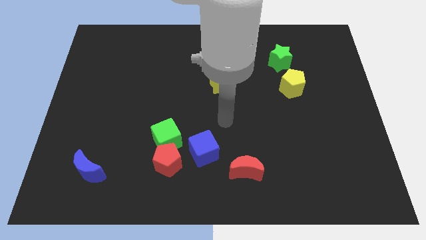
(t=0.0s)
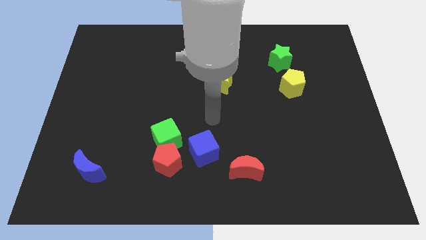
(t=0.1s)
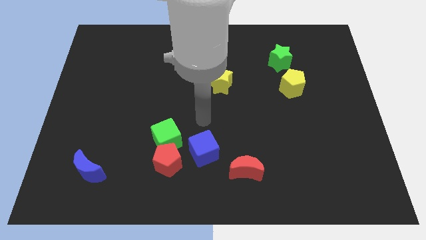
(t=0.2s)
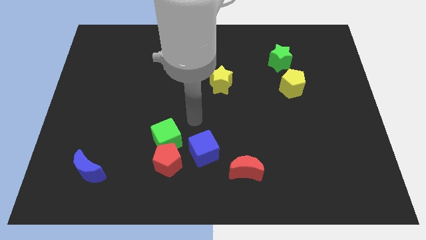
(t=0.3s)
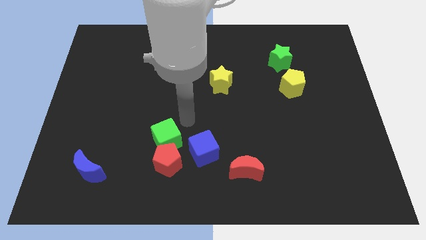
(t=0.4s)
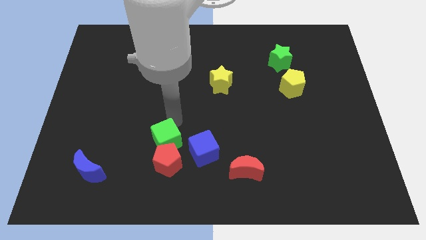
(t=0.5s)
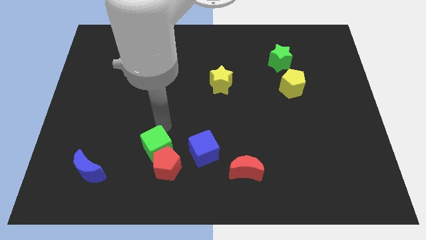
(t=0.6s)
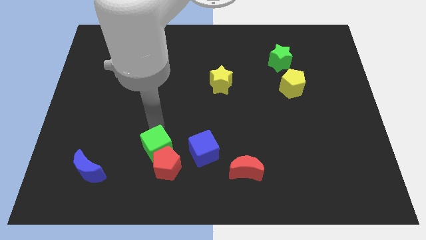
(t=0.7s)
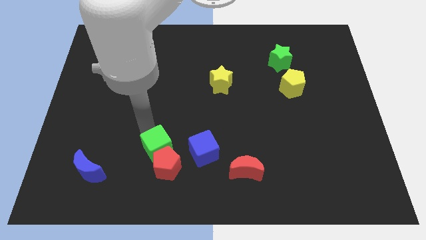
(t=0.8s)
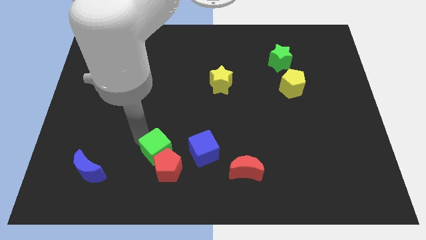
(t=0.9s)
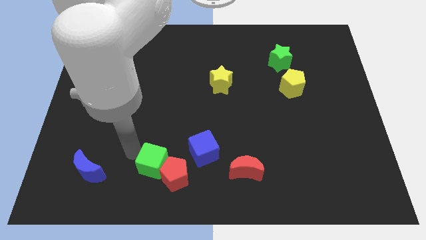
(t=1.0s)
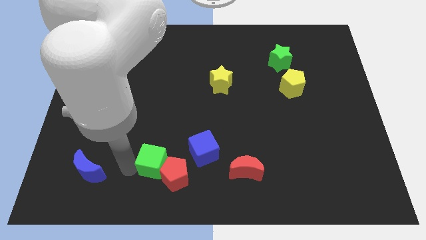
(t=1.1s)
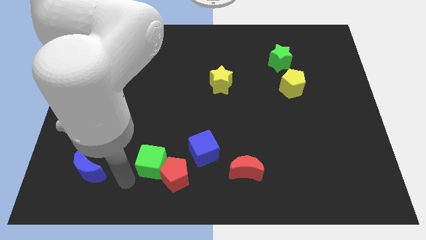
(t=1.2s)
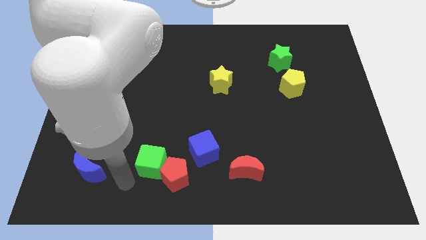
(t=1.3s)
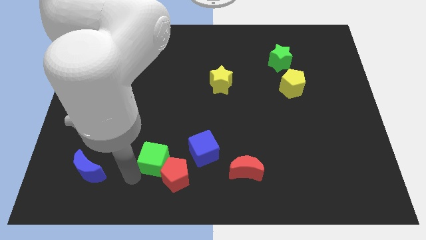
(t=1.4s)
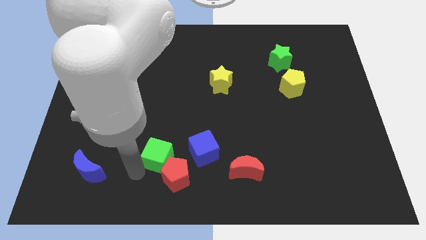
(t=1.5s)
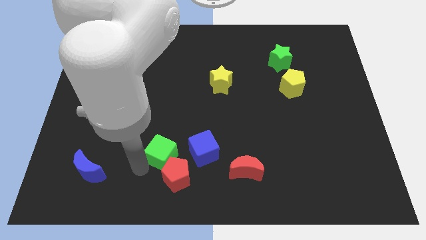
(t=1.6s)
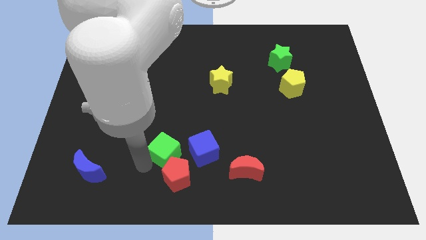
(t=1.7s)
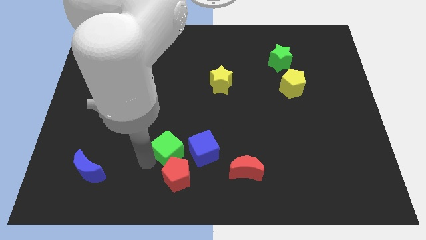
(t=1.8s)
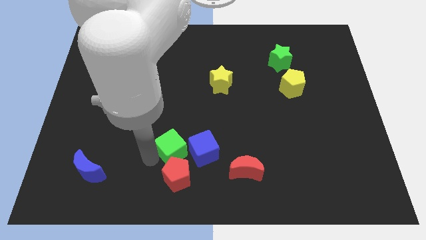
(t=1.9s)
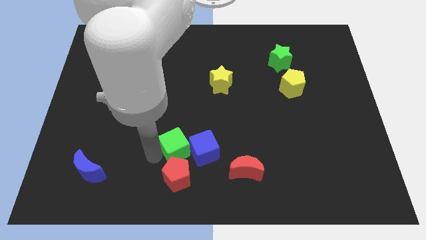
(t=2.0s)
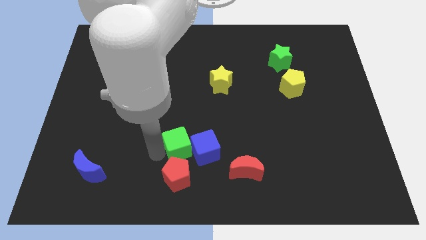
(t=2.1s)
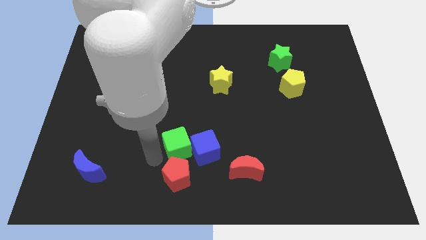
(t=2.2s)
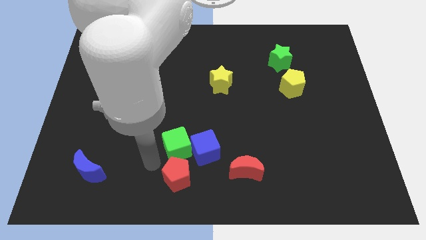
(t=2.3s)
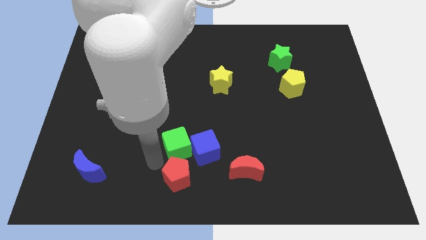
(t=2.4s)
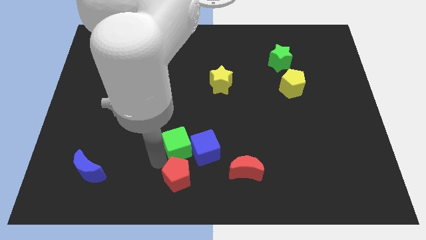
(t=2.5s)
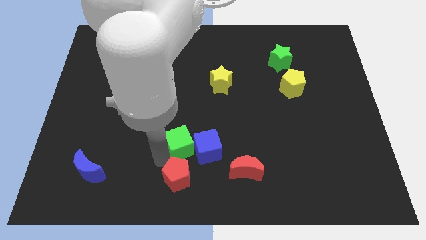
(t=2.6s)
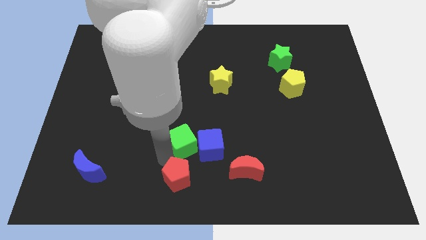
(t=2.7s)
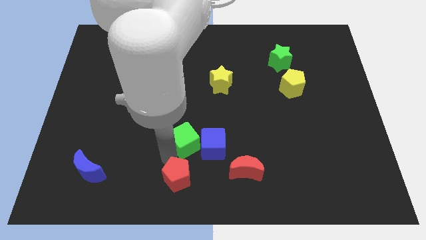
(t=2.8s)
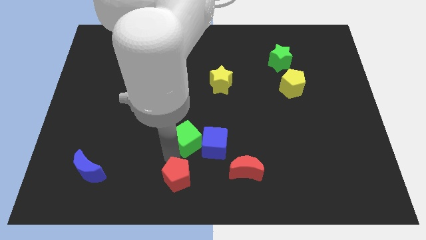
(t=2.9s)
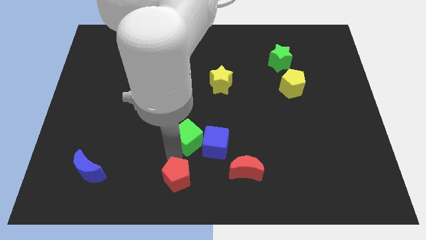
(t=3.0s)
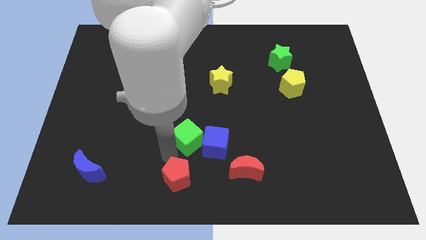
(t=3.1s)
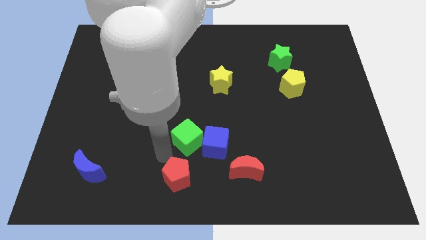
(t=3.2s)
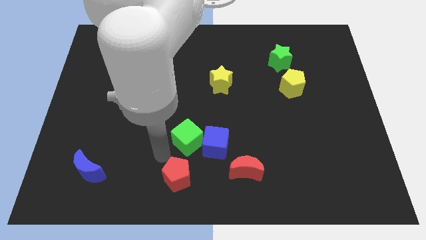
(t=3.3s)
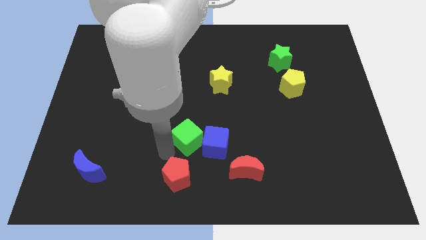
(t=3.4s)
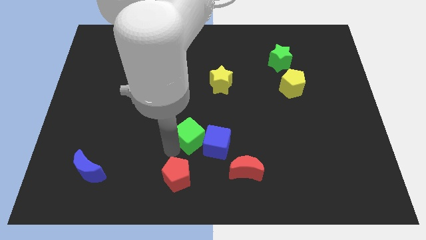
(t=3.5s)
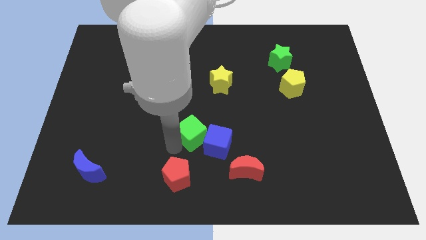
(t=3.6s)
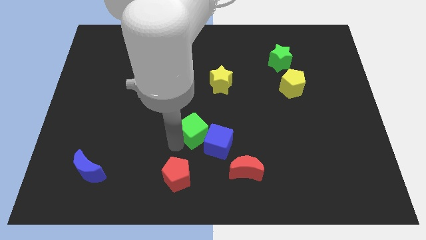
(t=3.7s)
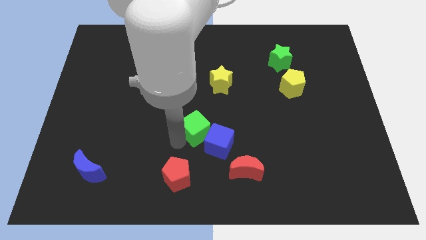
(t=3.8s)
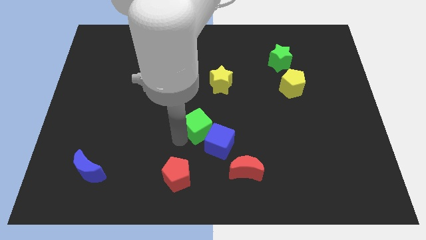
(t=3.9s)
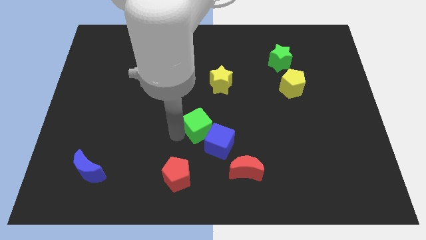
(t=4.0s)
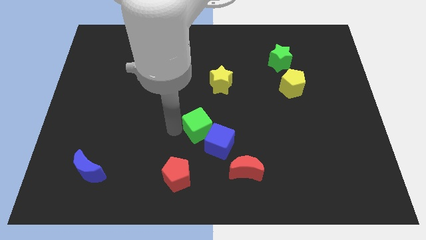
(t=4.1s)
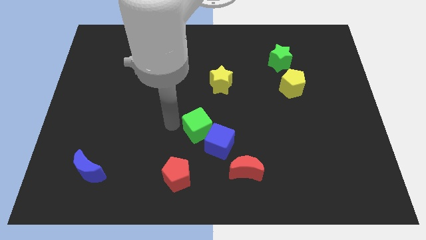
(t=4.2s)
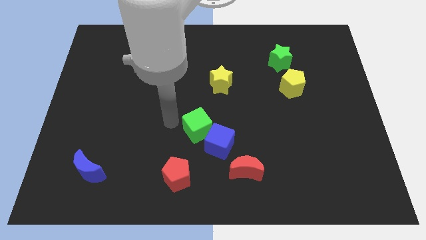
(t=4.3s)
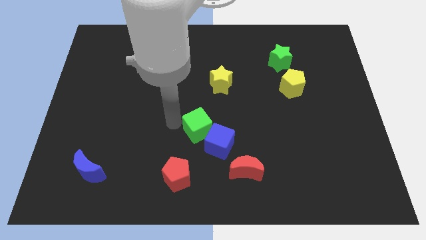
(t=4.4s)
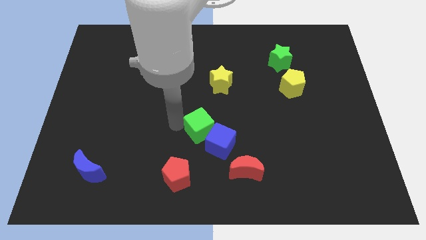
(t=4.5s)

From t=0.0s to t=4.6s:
slide the green cube right slightly

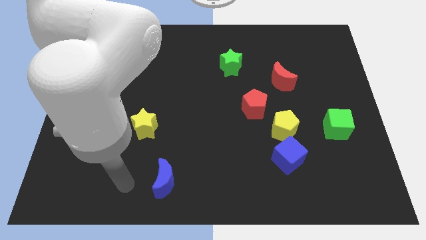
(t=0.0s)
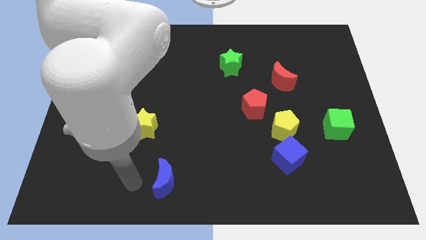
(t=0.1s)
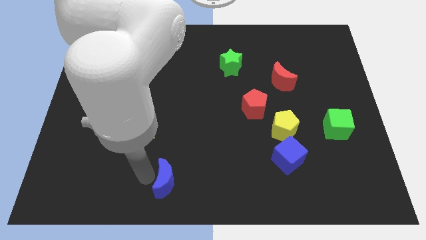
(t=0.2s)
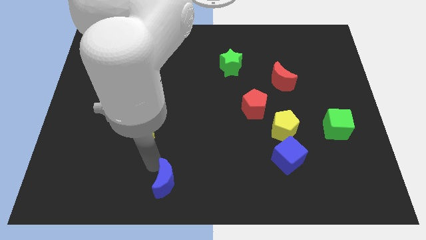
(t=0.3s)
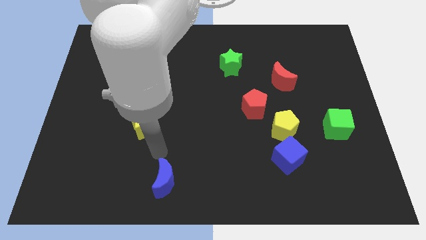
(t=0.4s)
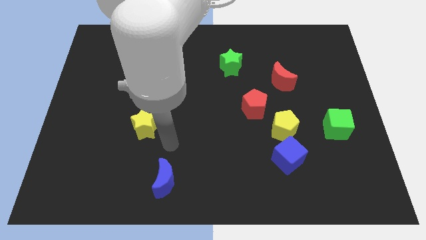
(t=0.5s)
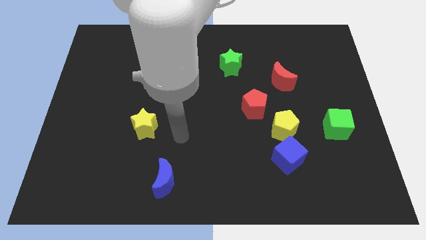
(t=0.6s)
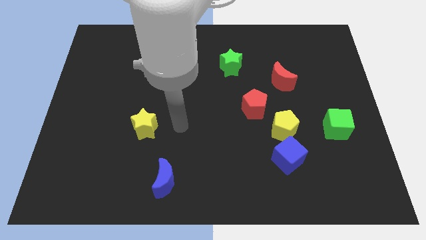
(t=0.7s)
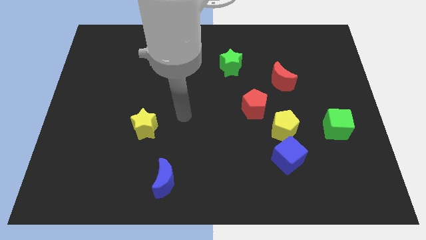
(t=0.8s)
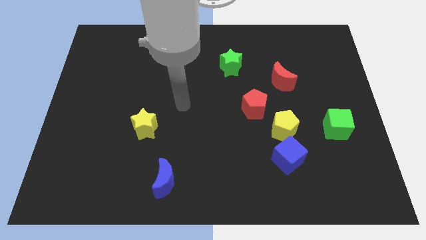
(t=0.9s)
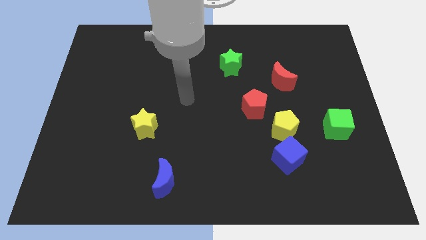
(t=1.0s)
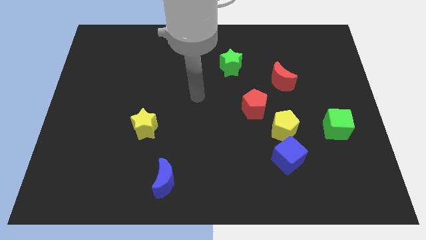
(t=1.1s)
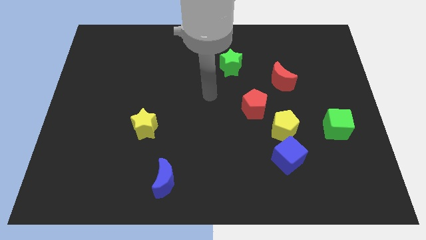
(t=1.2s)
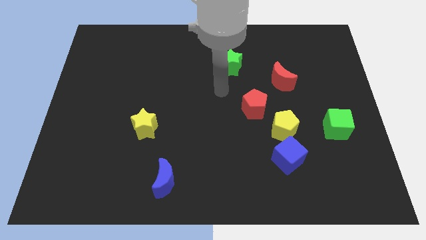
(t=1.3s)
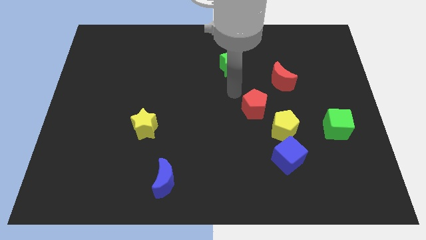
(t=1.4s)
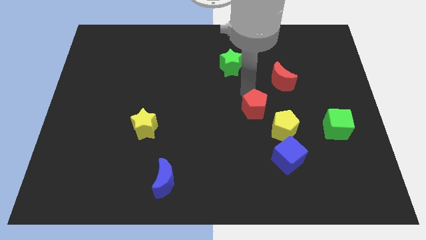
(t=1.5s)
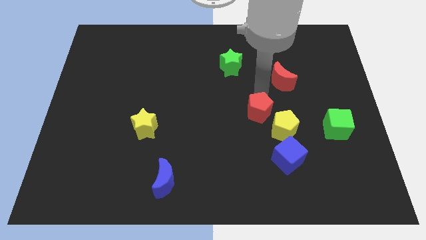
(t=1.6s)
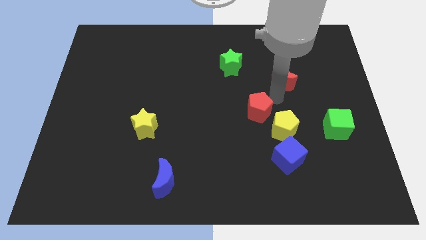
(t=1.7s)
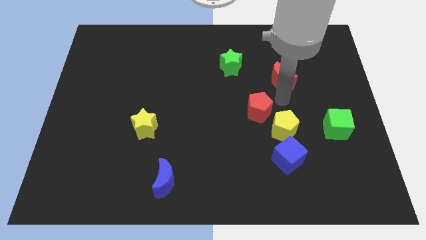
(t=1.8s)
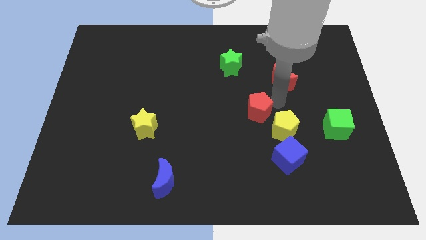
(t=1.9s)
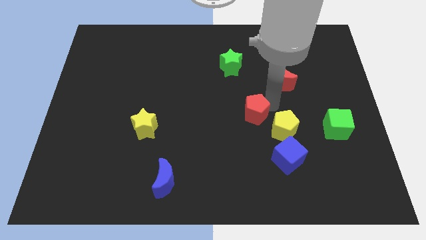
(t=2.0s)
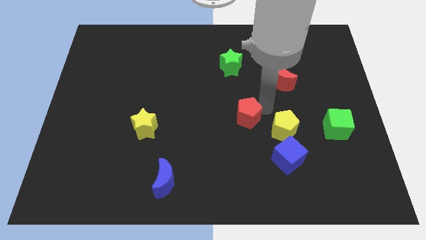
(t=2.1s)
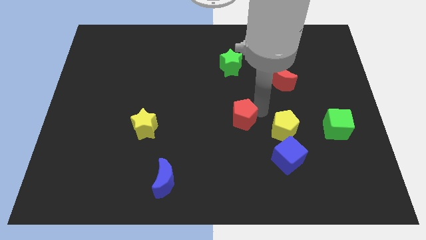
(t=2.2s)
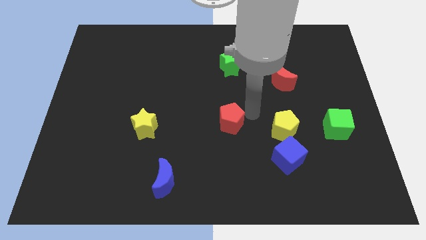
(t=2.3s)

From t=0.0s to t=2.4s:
push the red pentagon down and then to the left a bit

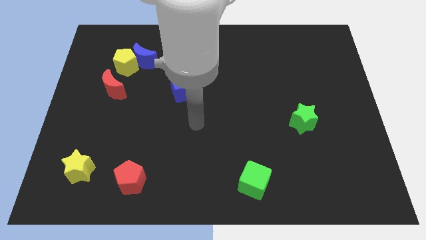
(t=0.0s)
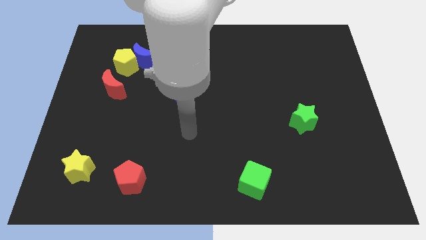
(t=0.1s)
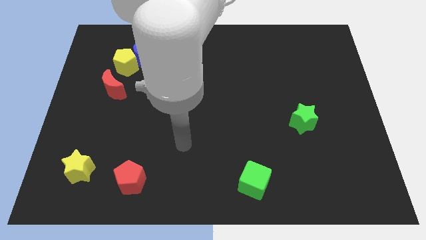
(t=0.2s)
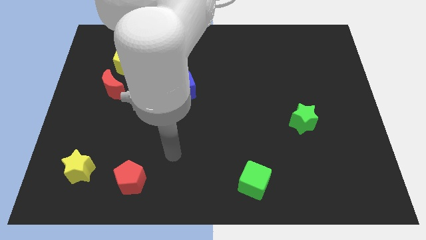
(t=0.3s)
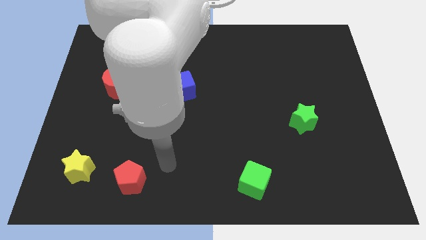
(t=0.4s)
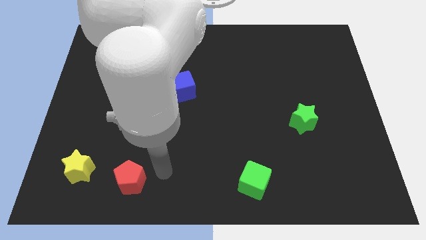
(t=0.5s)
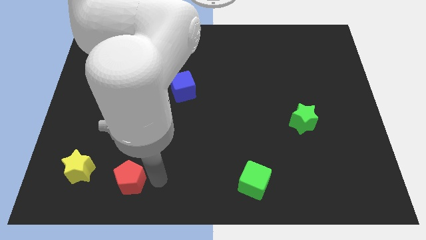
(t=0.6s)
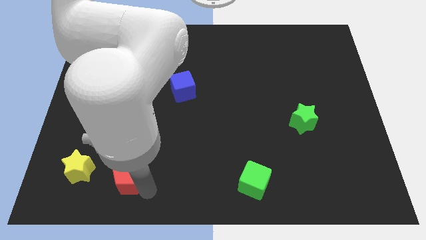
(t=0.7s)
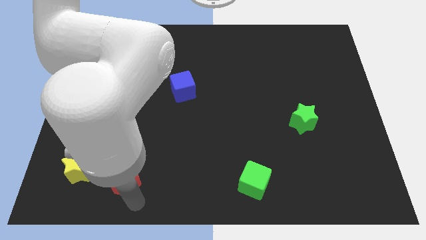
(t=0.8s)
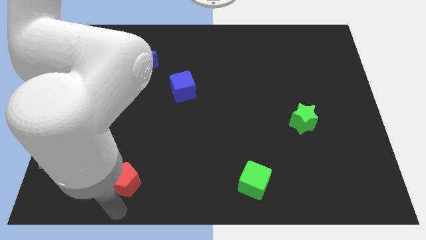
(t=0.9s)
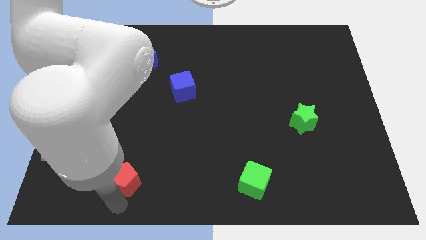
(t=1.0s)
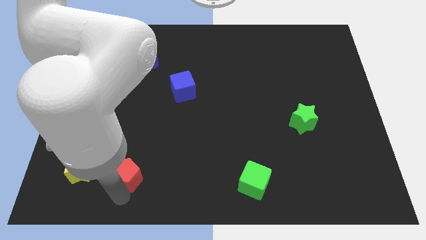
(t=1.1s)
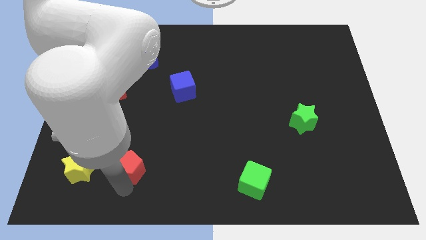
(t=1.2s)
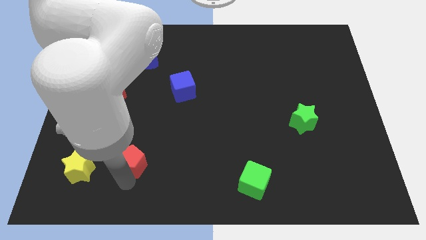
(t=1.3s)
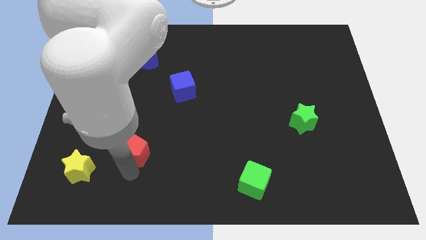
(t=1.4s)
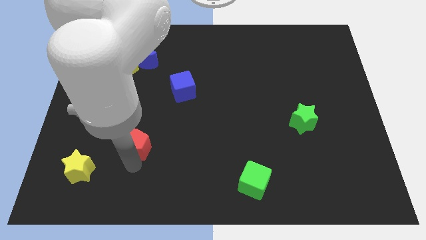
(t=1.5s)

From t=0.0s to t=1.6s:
move the red pentagon a little upwards
